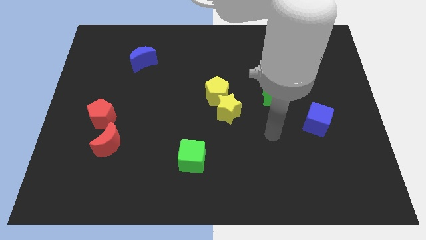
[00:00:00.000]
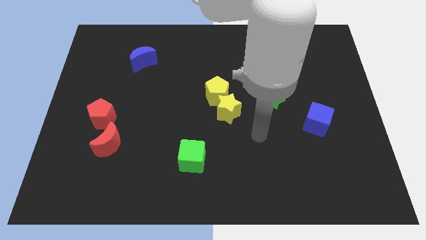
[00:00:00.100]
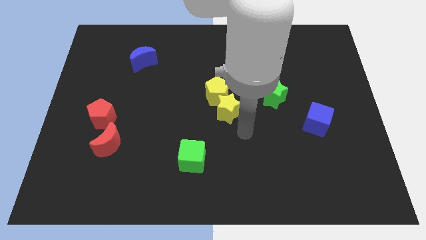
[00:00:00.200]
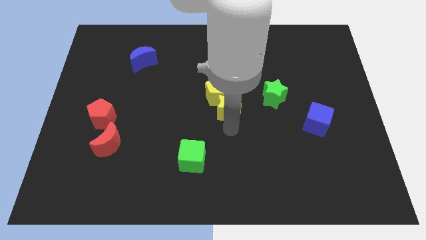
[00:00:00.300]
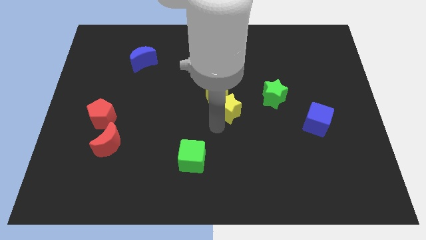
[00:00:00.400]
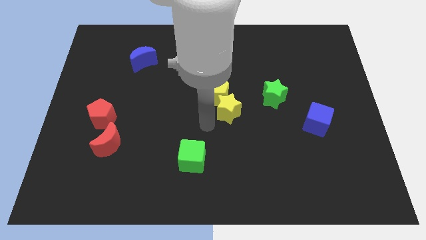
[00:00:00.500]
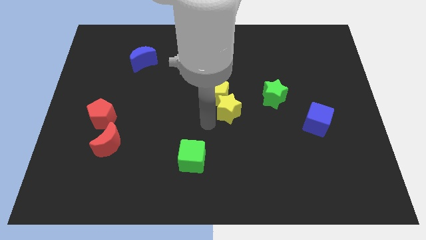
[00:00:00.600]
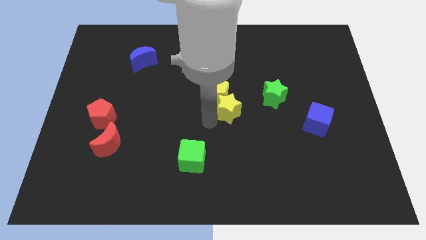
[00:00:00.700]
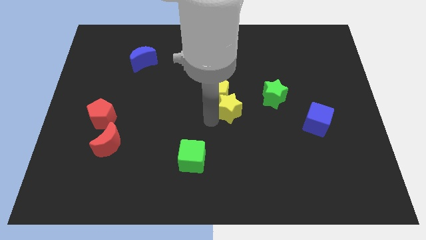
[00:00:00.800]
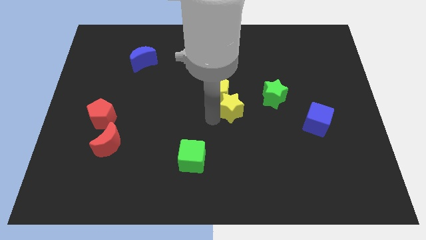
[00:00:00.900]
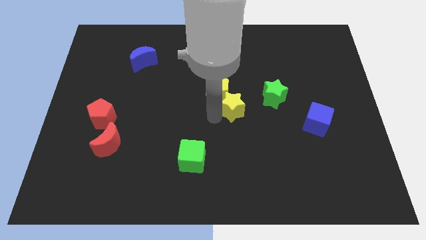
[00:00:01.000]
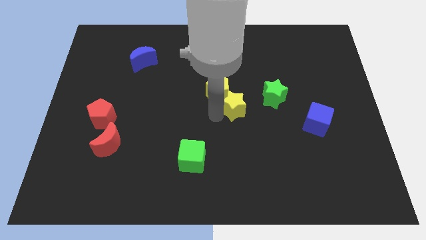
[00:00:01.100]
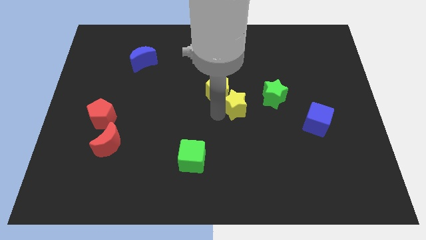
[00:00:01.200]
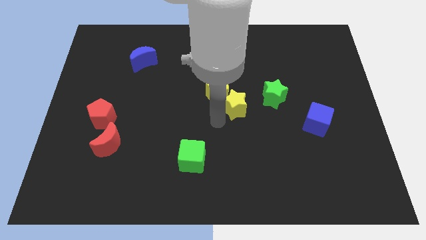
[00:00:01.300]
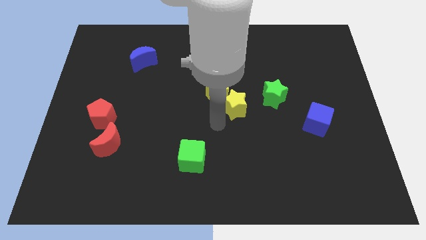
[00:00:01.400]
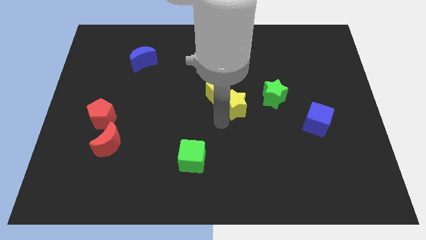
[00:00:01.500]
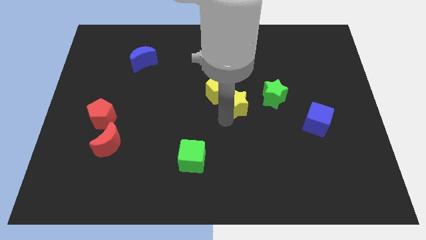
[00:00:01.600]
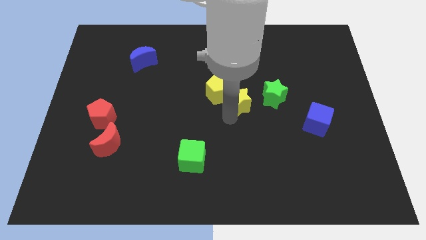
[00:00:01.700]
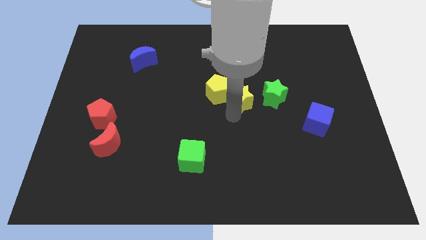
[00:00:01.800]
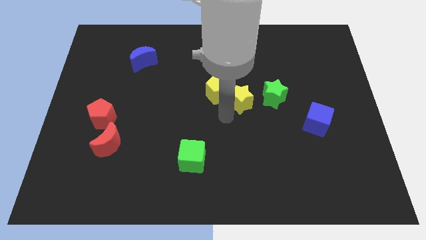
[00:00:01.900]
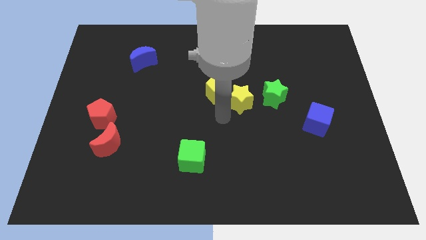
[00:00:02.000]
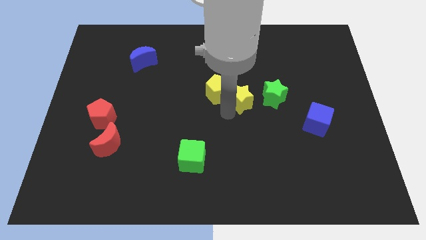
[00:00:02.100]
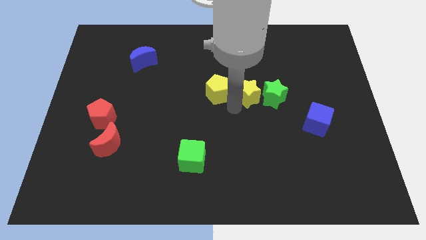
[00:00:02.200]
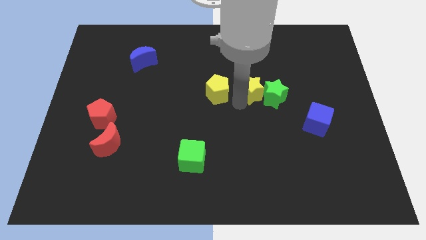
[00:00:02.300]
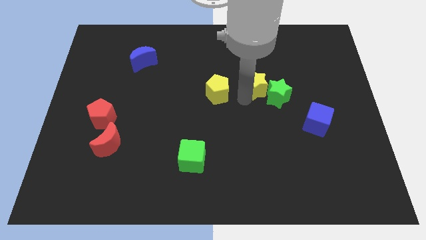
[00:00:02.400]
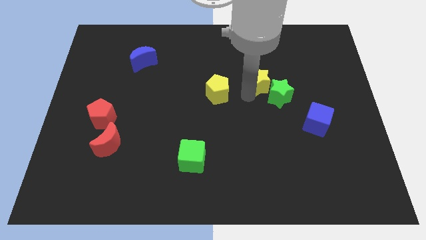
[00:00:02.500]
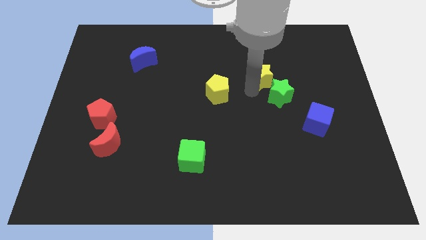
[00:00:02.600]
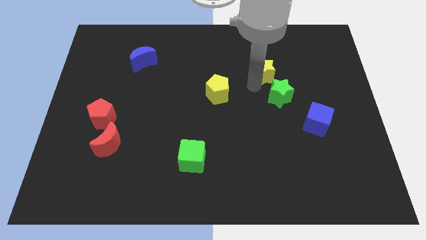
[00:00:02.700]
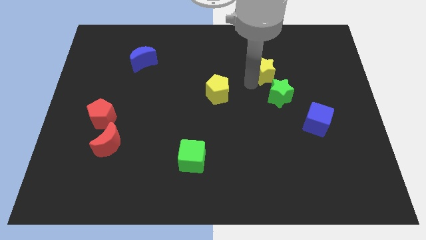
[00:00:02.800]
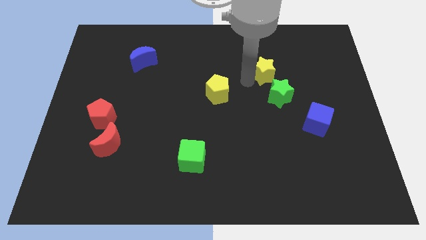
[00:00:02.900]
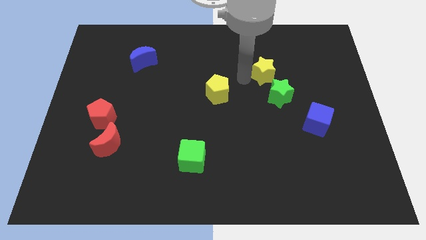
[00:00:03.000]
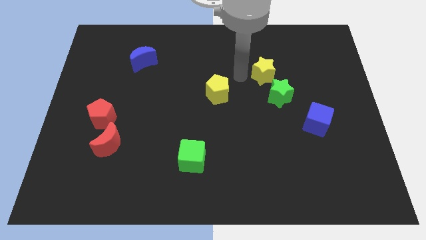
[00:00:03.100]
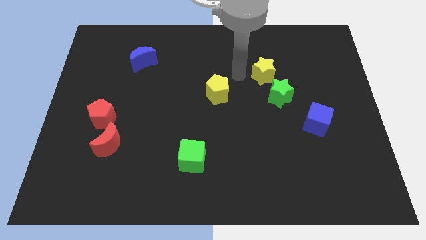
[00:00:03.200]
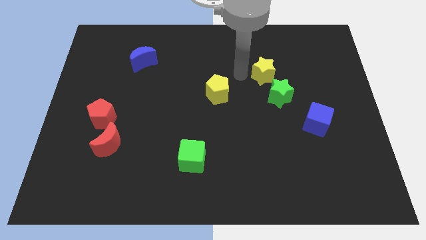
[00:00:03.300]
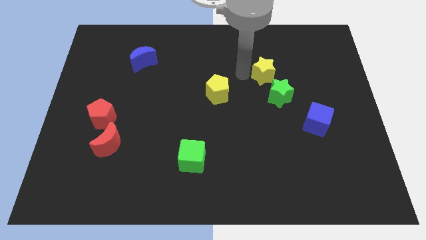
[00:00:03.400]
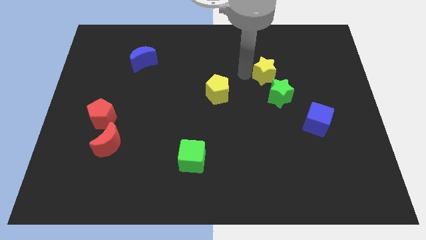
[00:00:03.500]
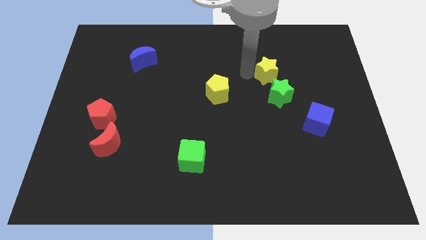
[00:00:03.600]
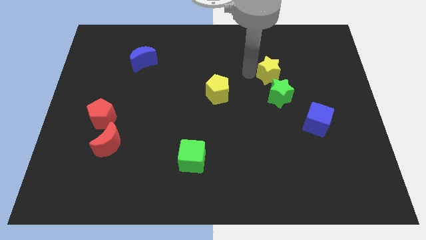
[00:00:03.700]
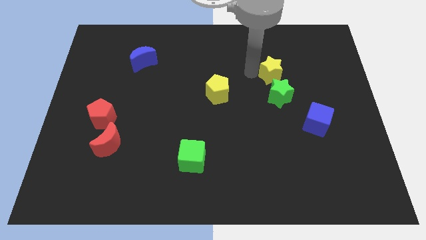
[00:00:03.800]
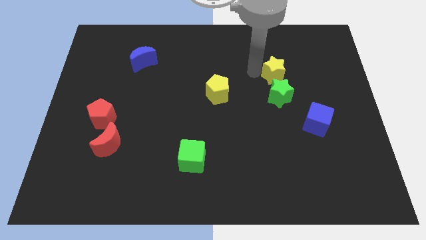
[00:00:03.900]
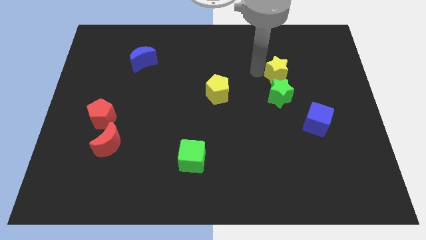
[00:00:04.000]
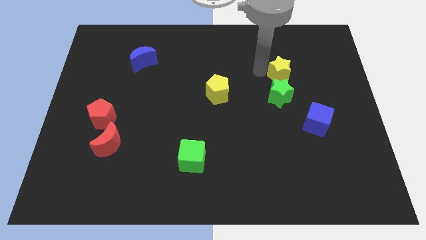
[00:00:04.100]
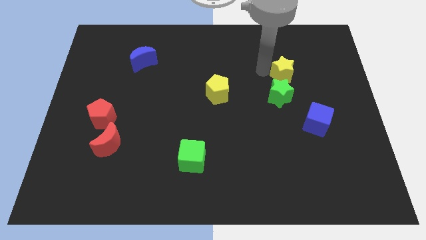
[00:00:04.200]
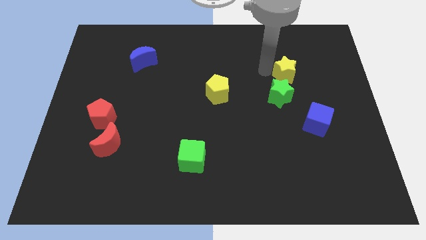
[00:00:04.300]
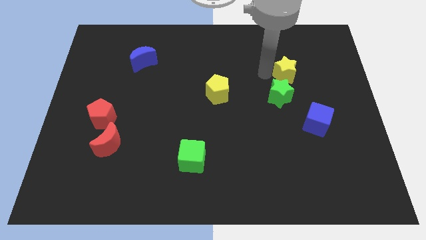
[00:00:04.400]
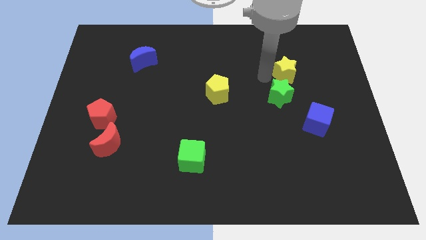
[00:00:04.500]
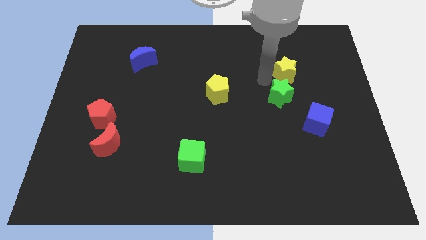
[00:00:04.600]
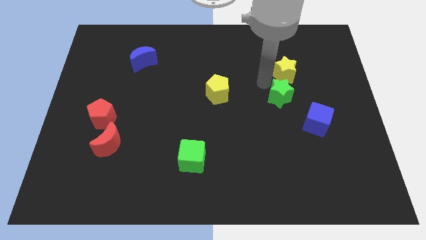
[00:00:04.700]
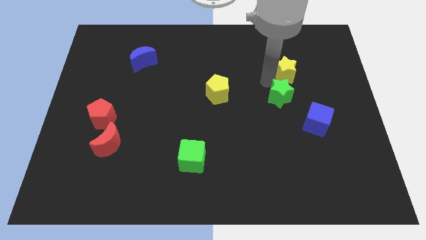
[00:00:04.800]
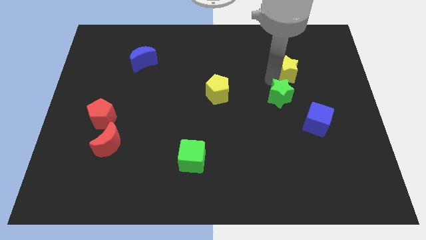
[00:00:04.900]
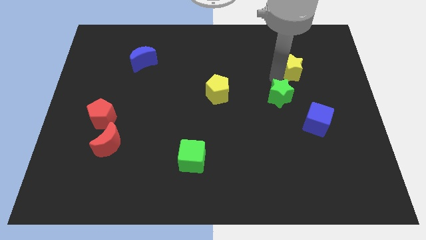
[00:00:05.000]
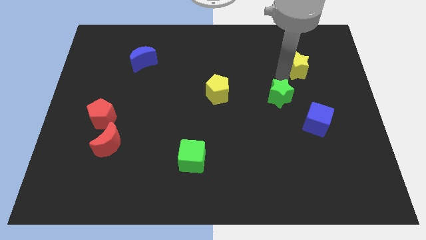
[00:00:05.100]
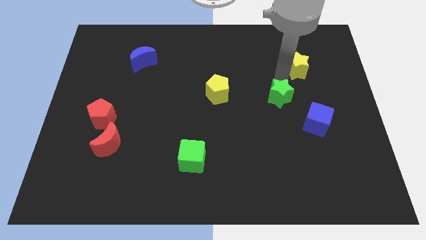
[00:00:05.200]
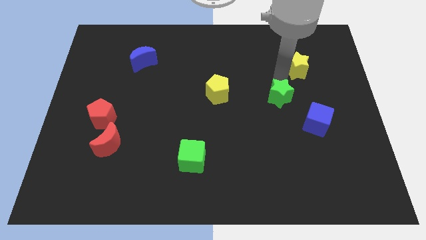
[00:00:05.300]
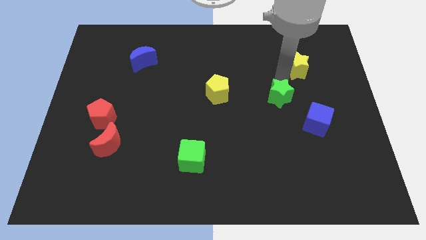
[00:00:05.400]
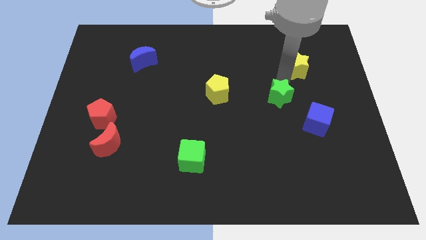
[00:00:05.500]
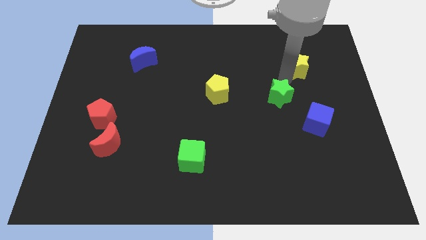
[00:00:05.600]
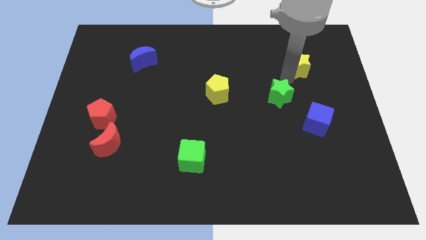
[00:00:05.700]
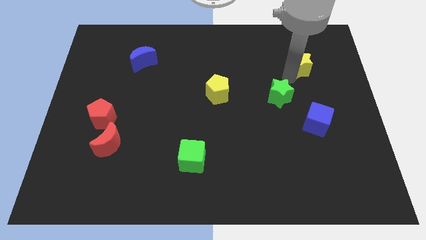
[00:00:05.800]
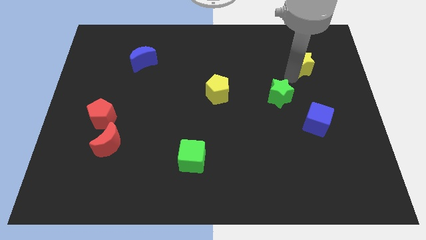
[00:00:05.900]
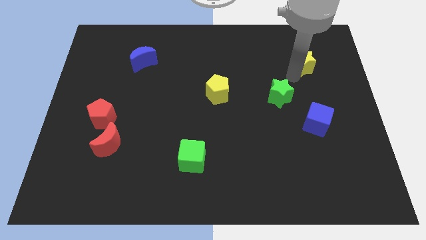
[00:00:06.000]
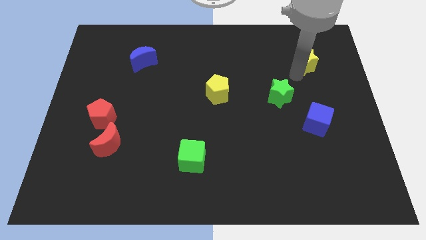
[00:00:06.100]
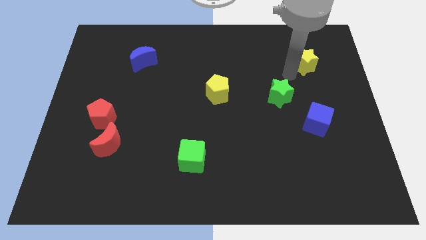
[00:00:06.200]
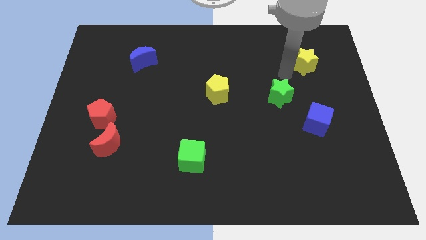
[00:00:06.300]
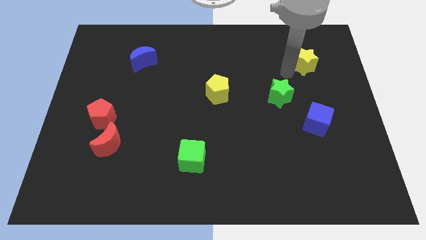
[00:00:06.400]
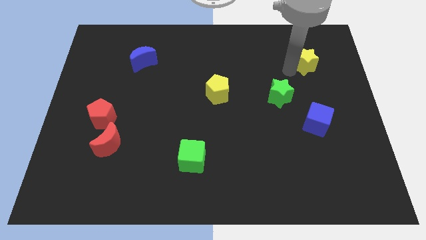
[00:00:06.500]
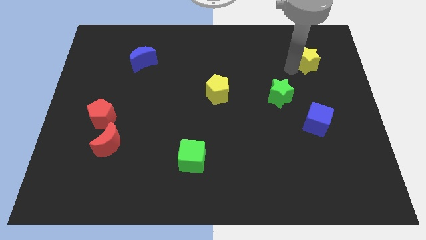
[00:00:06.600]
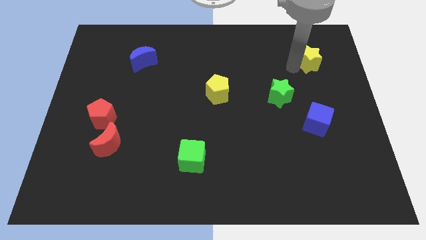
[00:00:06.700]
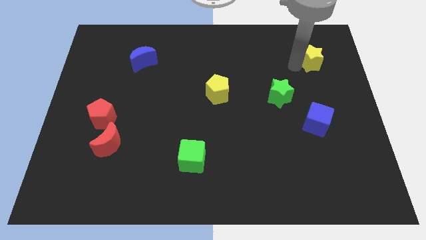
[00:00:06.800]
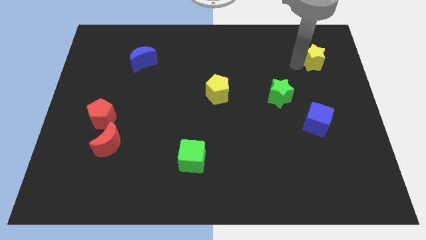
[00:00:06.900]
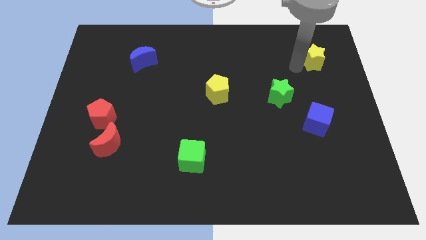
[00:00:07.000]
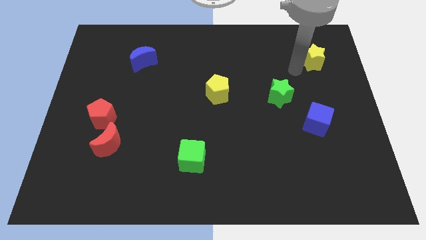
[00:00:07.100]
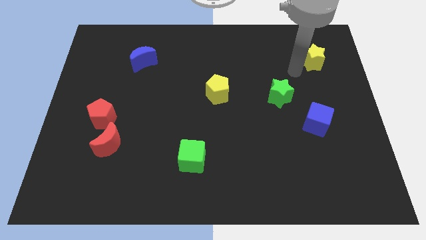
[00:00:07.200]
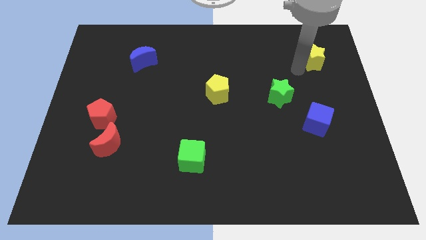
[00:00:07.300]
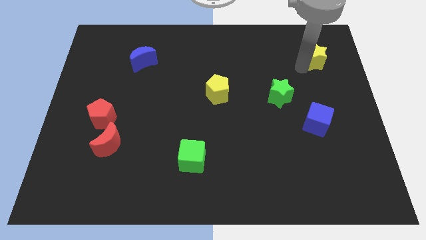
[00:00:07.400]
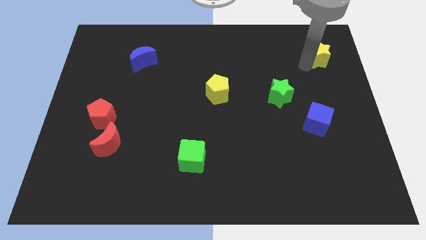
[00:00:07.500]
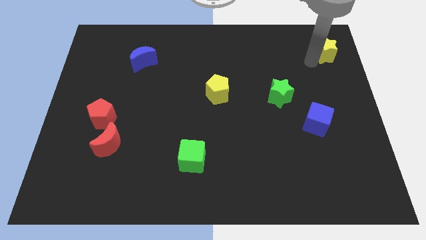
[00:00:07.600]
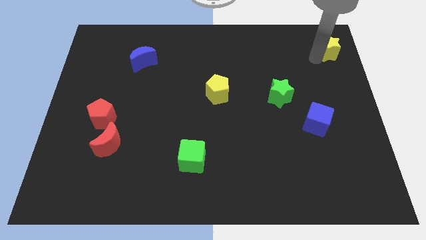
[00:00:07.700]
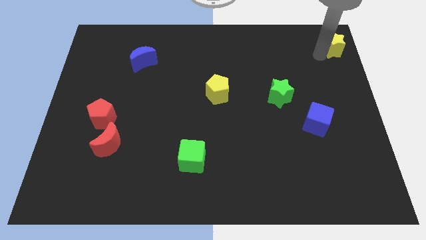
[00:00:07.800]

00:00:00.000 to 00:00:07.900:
slide the yellow star to the top right of the board
